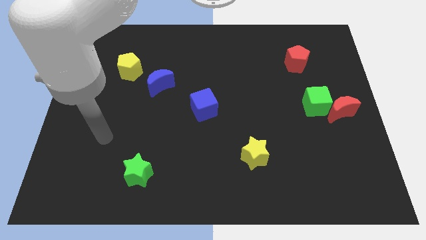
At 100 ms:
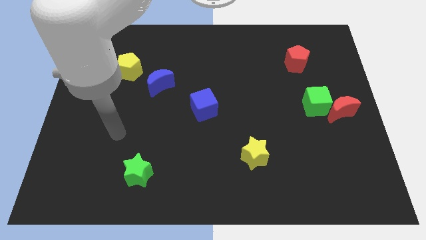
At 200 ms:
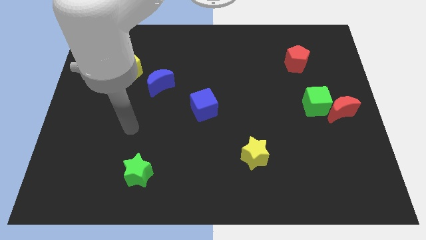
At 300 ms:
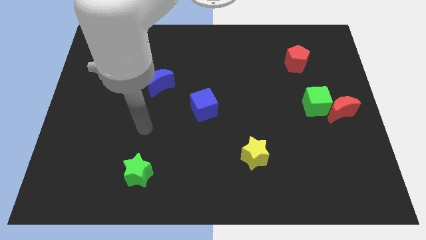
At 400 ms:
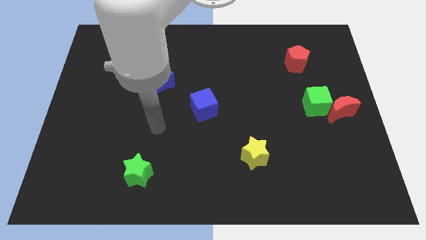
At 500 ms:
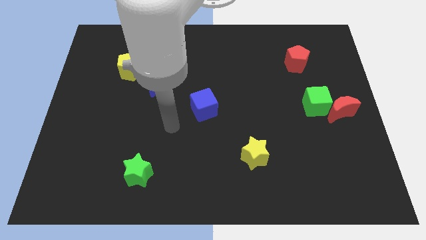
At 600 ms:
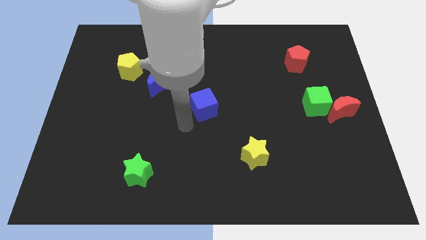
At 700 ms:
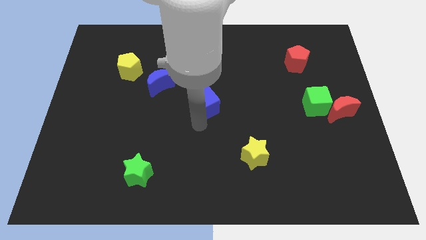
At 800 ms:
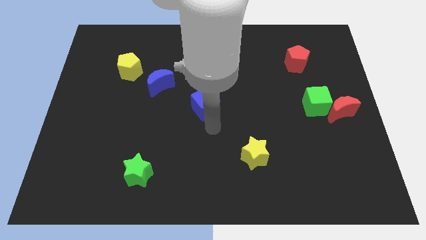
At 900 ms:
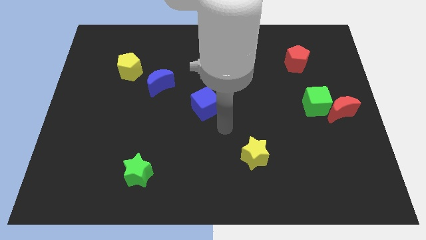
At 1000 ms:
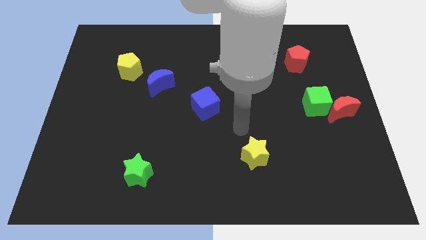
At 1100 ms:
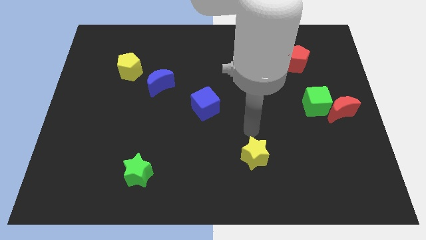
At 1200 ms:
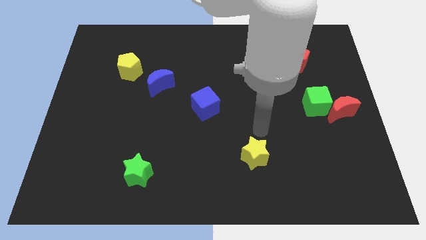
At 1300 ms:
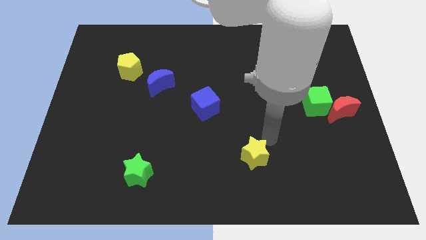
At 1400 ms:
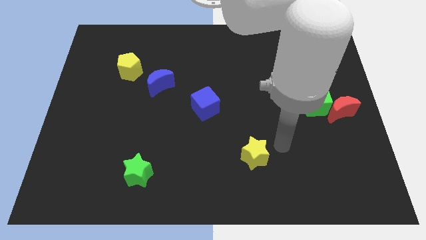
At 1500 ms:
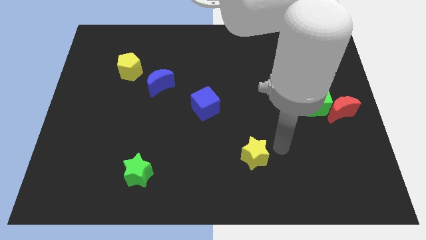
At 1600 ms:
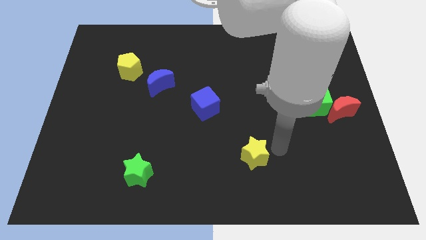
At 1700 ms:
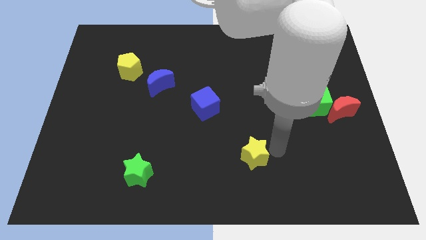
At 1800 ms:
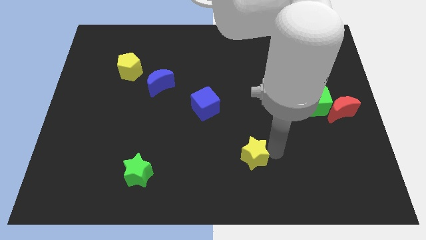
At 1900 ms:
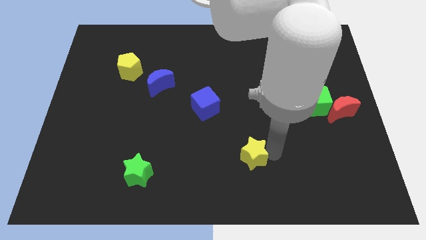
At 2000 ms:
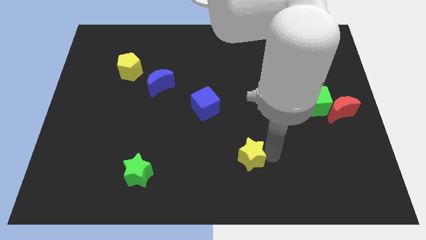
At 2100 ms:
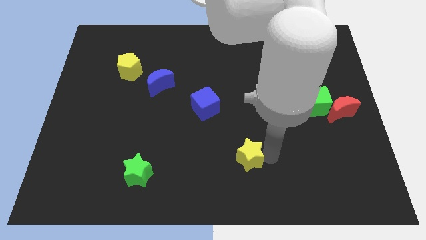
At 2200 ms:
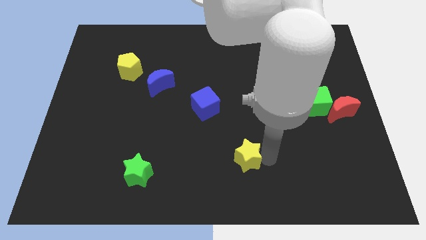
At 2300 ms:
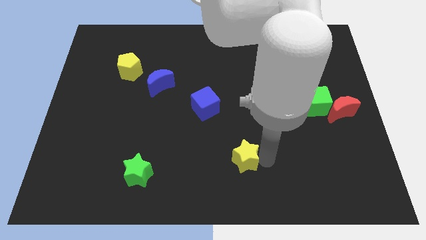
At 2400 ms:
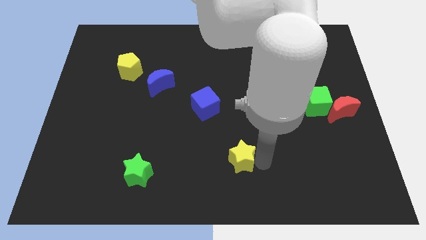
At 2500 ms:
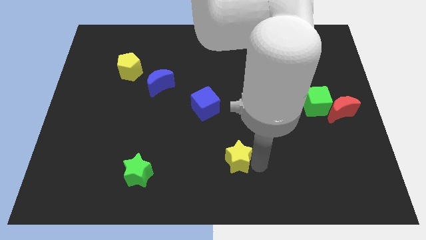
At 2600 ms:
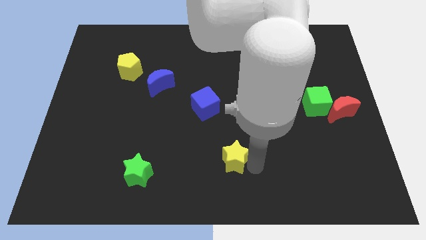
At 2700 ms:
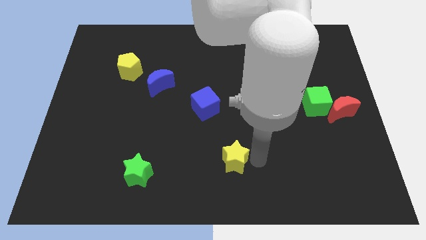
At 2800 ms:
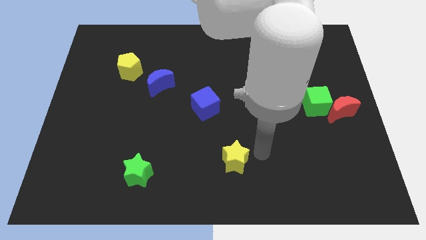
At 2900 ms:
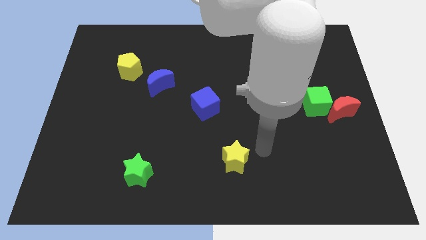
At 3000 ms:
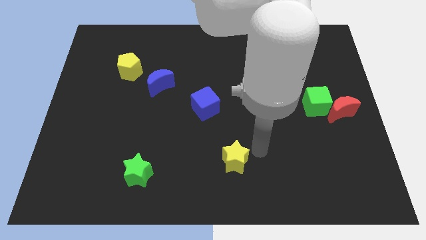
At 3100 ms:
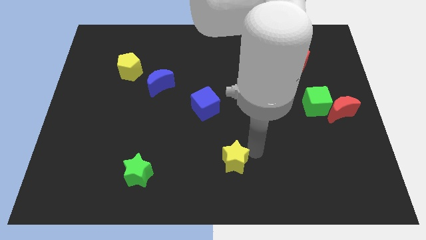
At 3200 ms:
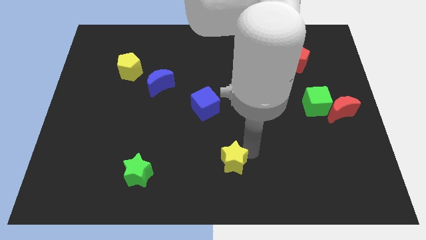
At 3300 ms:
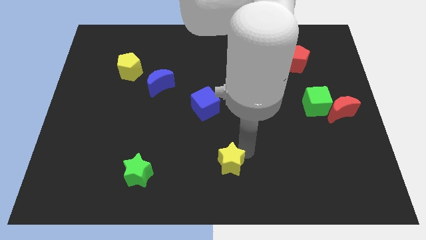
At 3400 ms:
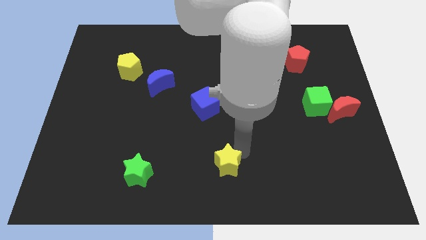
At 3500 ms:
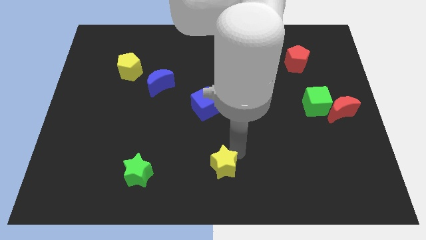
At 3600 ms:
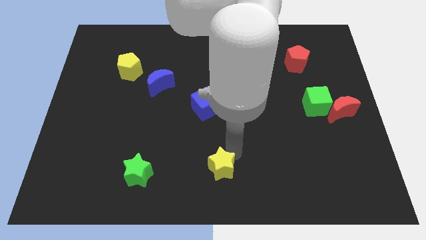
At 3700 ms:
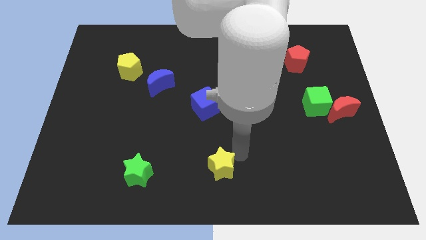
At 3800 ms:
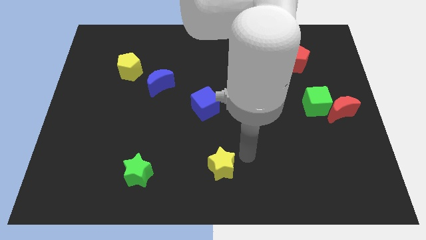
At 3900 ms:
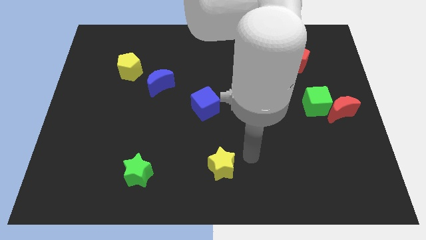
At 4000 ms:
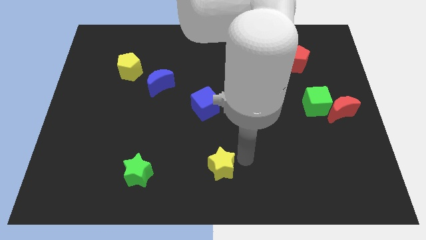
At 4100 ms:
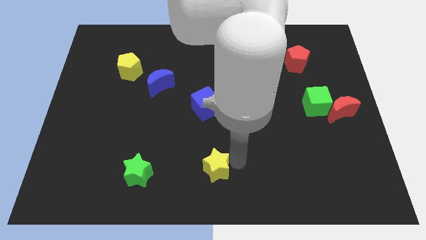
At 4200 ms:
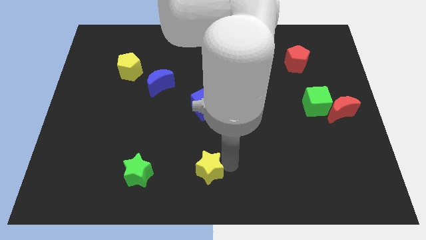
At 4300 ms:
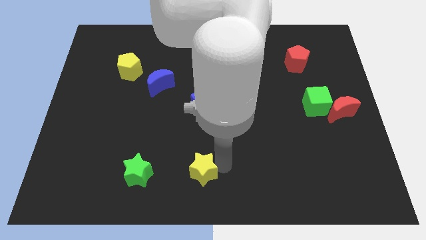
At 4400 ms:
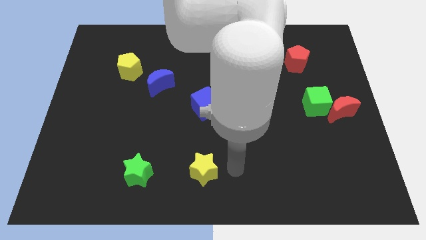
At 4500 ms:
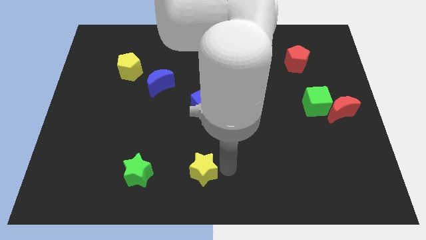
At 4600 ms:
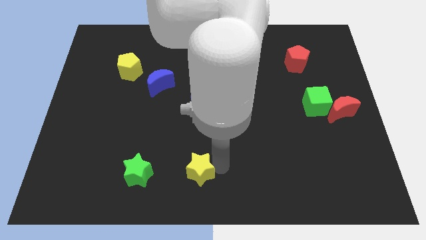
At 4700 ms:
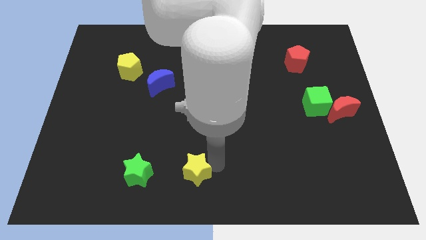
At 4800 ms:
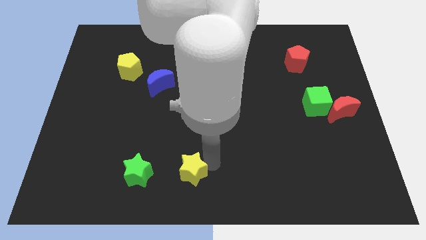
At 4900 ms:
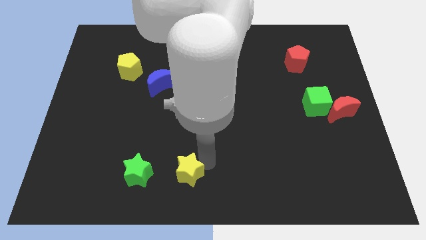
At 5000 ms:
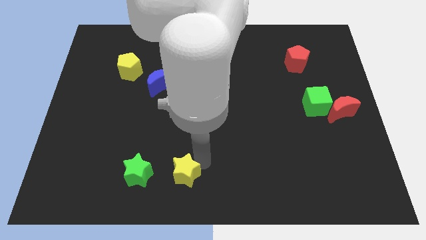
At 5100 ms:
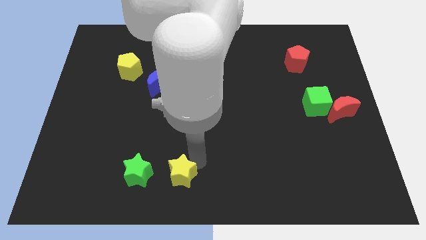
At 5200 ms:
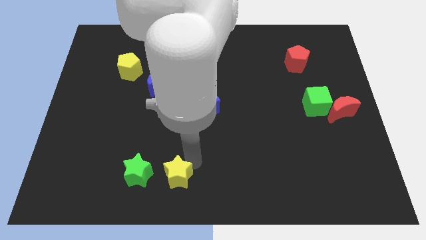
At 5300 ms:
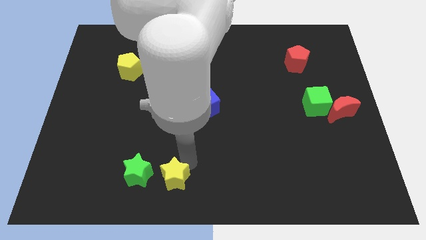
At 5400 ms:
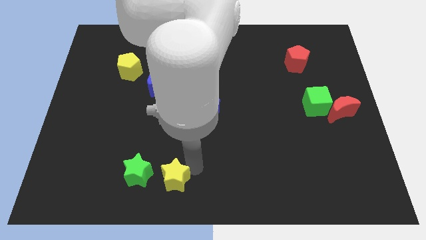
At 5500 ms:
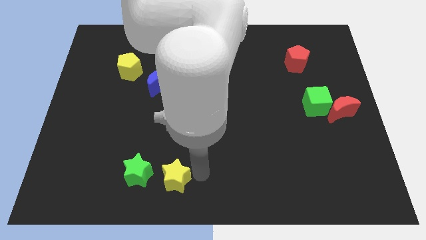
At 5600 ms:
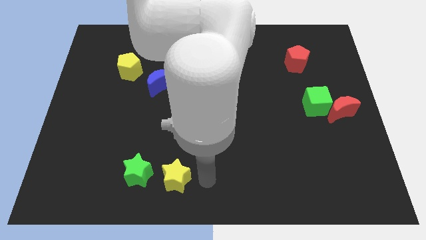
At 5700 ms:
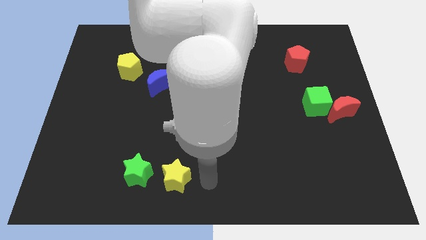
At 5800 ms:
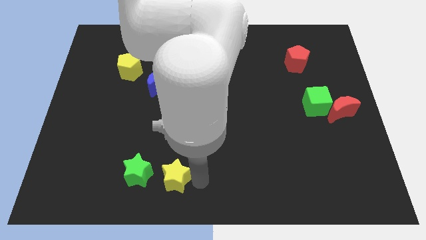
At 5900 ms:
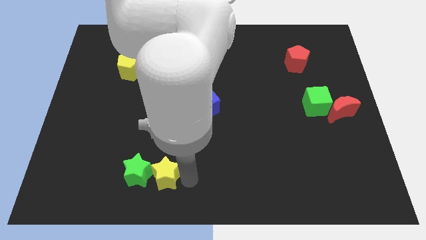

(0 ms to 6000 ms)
push the yellow star towards the green star

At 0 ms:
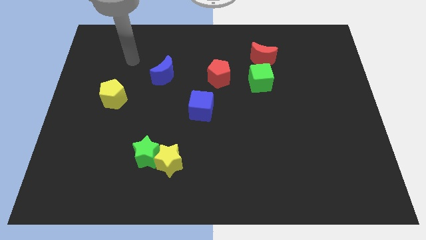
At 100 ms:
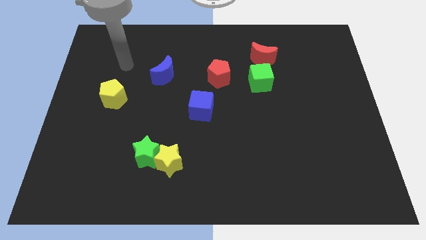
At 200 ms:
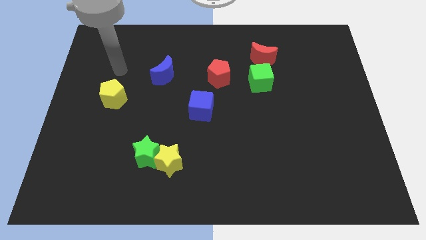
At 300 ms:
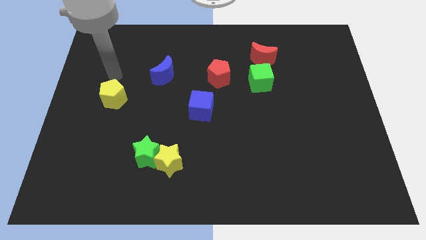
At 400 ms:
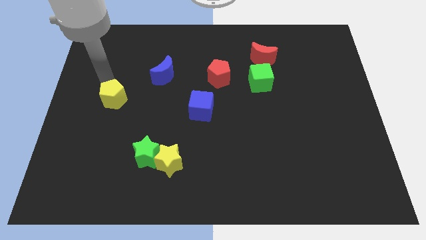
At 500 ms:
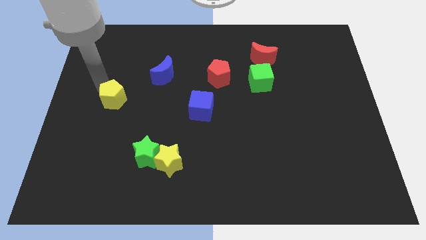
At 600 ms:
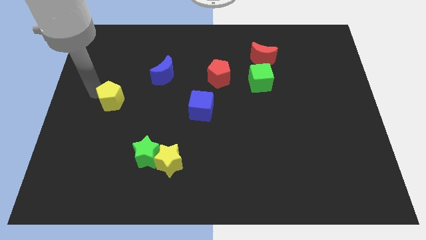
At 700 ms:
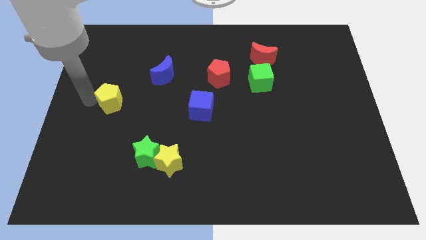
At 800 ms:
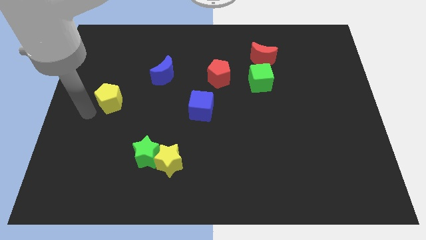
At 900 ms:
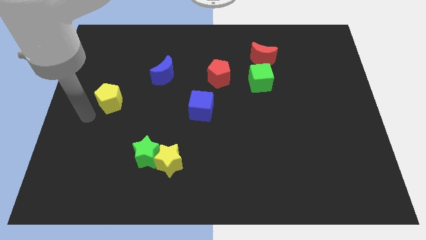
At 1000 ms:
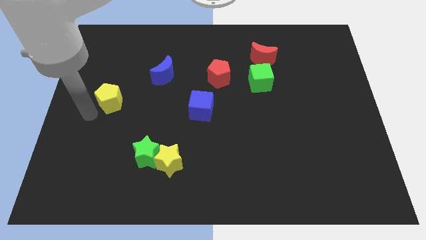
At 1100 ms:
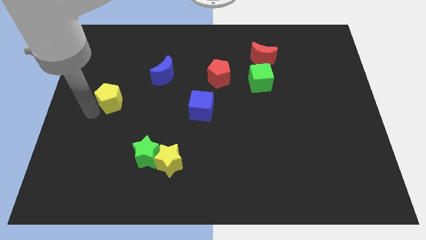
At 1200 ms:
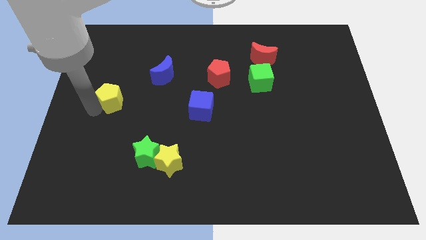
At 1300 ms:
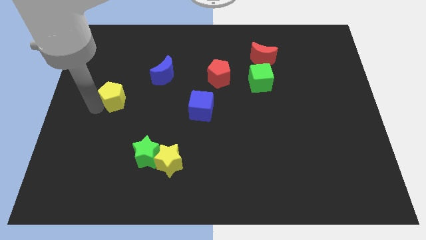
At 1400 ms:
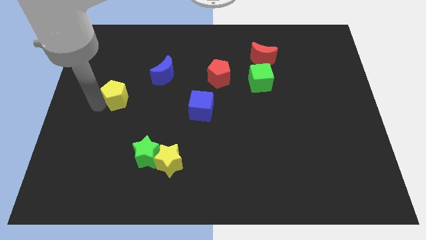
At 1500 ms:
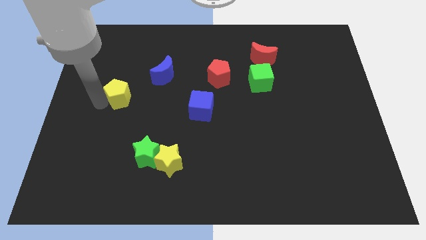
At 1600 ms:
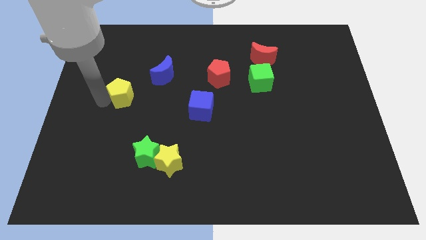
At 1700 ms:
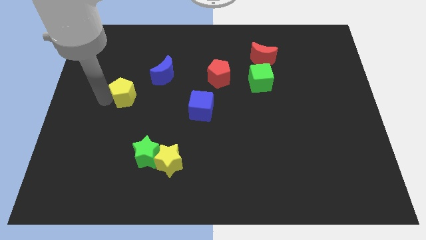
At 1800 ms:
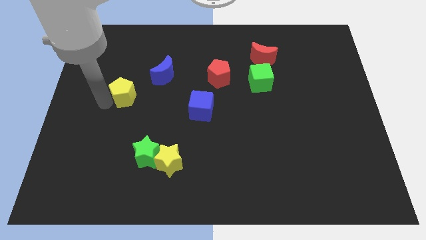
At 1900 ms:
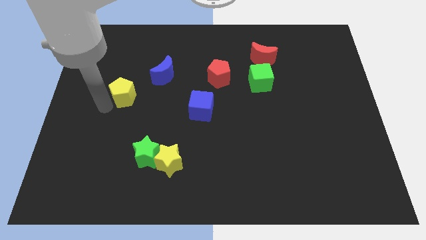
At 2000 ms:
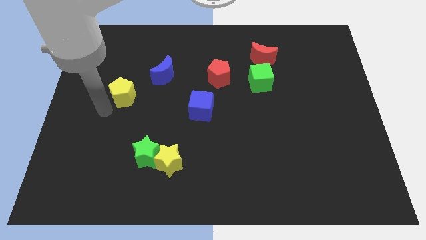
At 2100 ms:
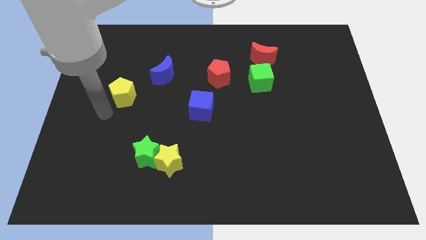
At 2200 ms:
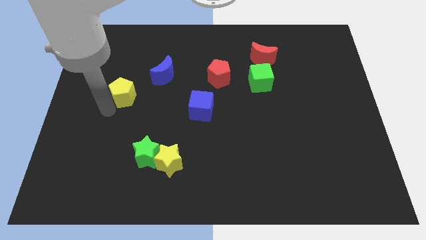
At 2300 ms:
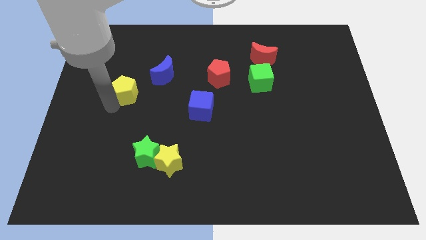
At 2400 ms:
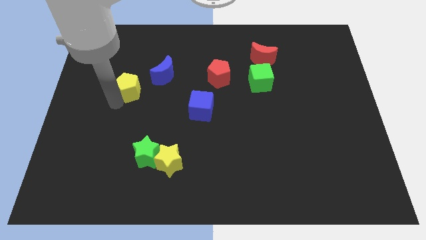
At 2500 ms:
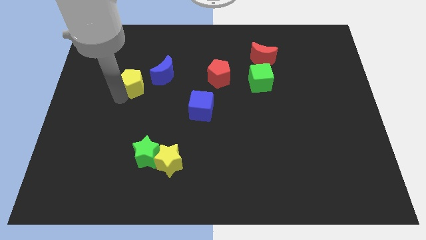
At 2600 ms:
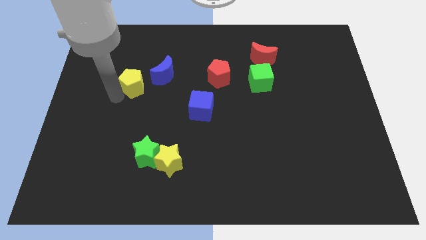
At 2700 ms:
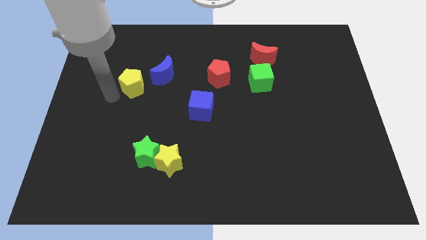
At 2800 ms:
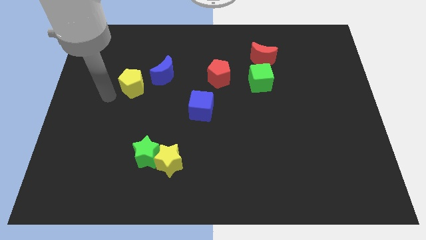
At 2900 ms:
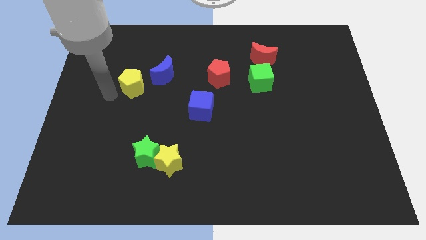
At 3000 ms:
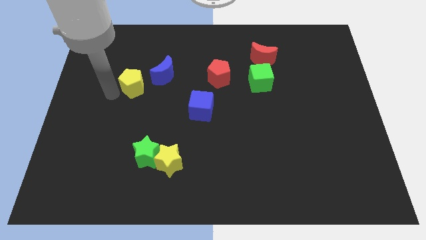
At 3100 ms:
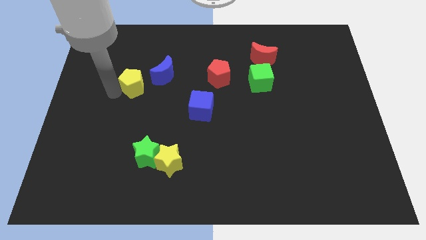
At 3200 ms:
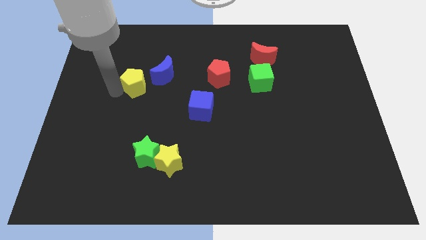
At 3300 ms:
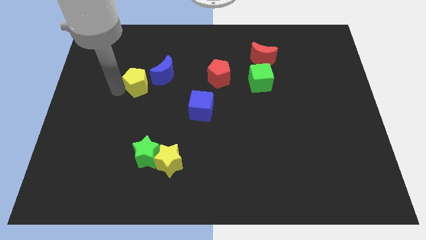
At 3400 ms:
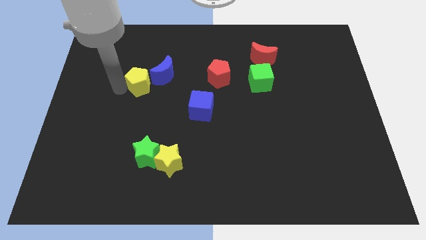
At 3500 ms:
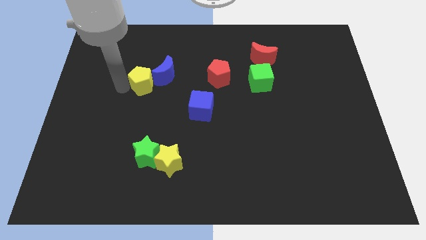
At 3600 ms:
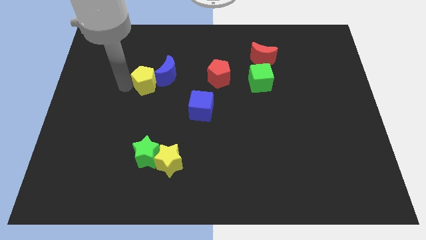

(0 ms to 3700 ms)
put the yellow pentagon close to the blue moon
